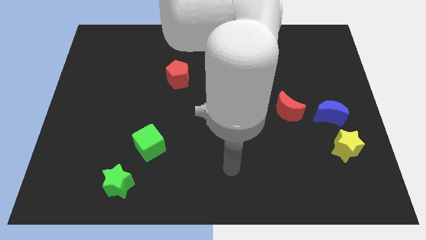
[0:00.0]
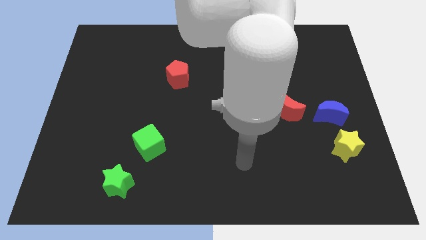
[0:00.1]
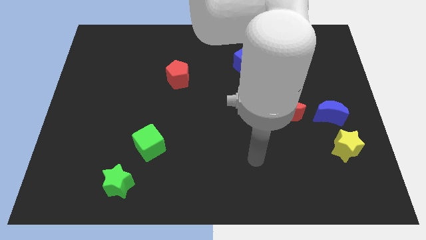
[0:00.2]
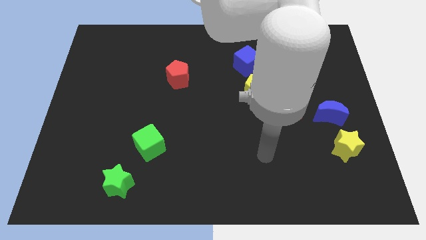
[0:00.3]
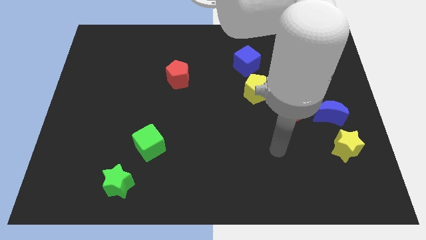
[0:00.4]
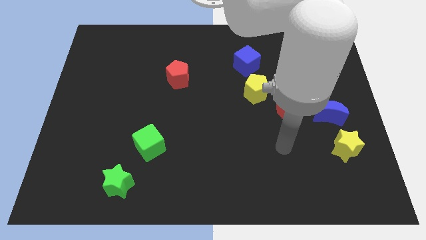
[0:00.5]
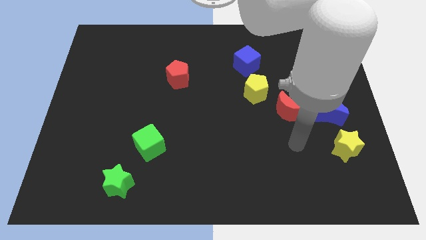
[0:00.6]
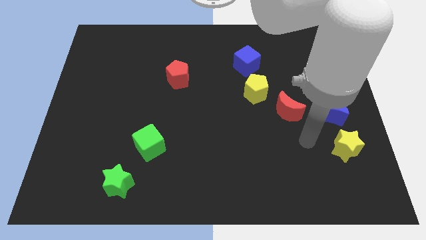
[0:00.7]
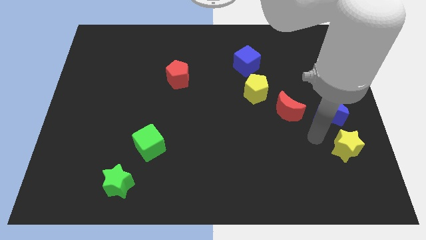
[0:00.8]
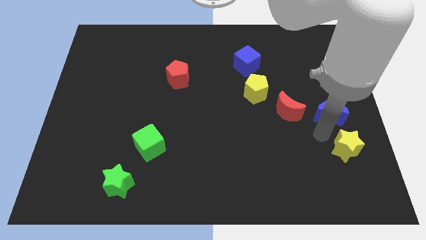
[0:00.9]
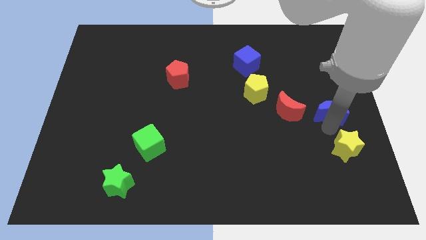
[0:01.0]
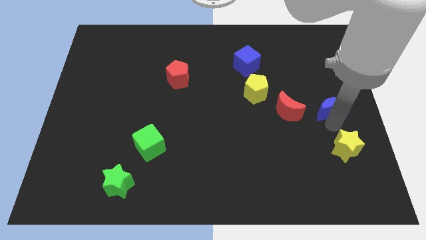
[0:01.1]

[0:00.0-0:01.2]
move the yellow star away from the blue moon

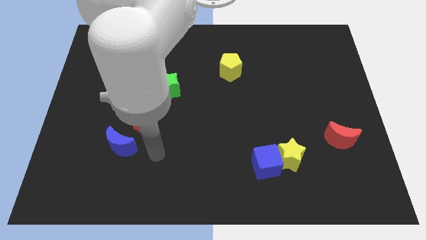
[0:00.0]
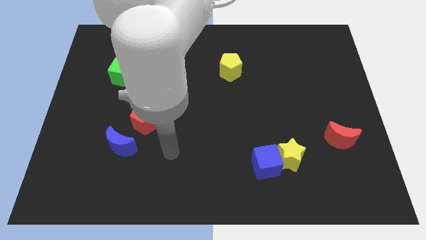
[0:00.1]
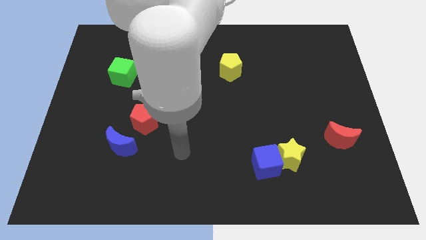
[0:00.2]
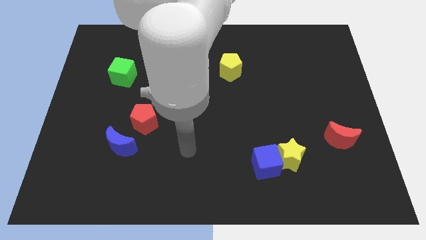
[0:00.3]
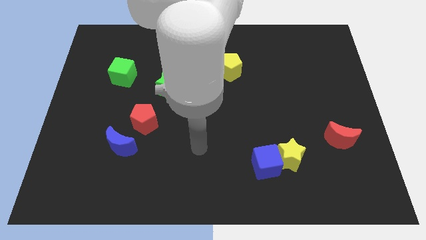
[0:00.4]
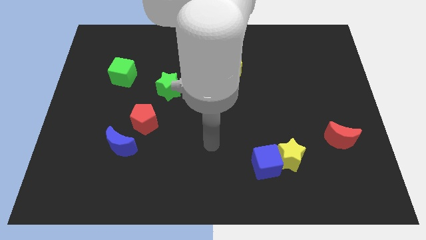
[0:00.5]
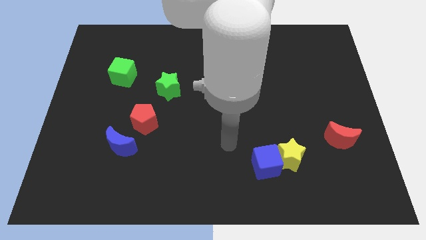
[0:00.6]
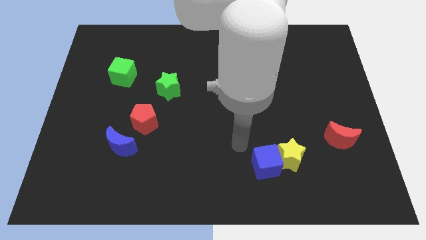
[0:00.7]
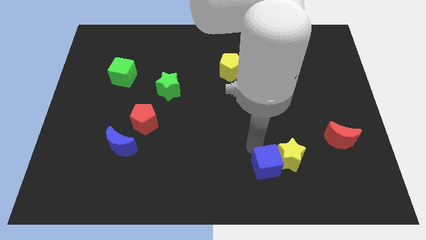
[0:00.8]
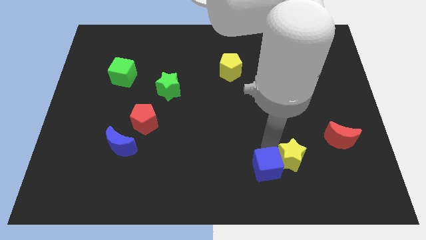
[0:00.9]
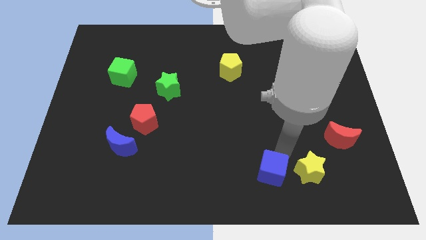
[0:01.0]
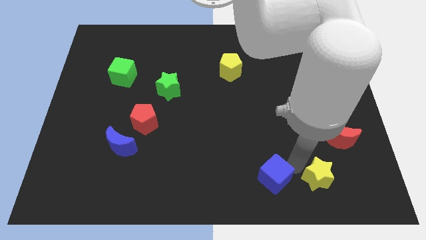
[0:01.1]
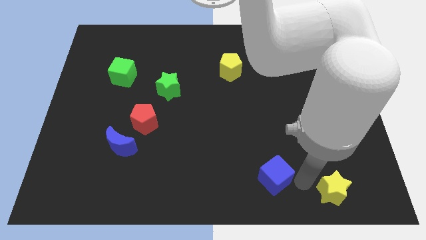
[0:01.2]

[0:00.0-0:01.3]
separate the blue cube from the yellow star

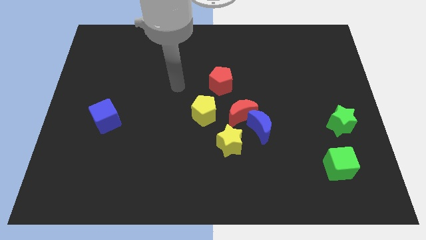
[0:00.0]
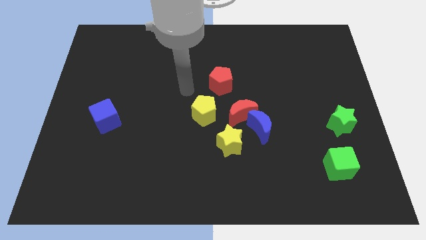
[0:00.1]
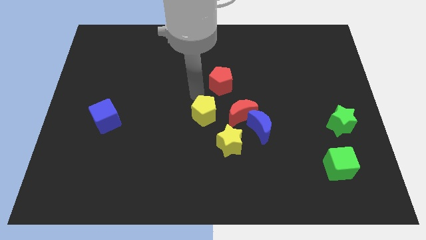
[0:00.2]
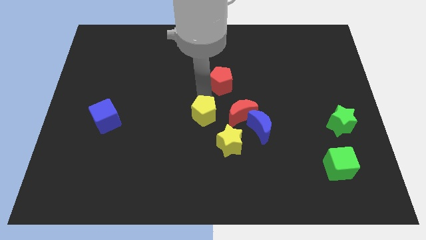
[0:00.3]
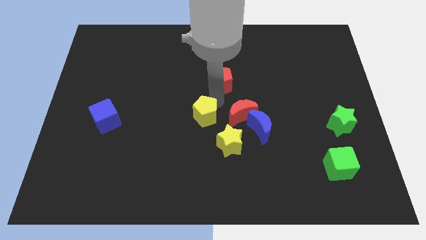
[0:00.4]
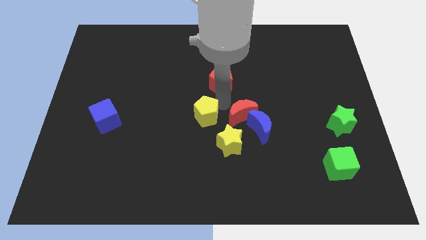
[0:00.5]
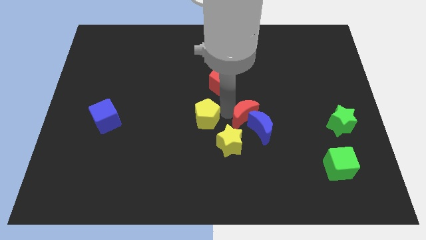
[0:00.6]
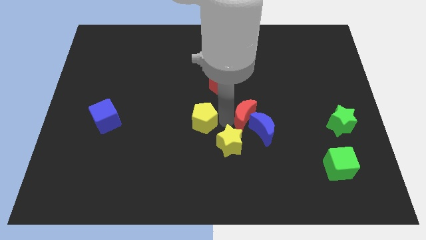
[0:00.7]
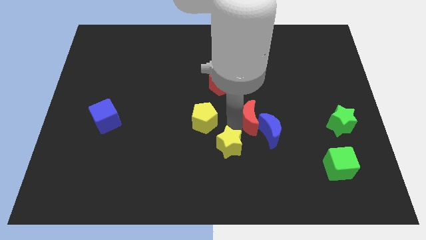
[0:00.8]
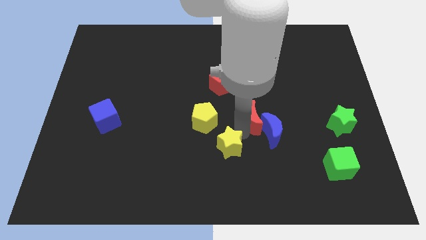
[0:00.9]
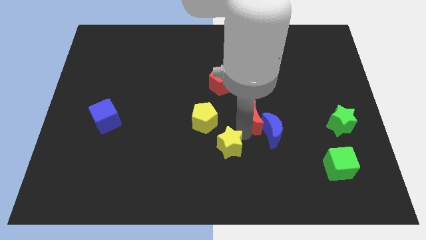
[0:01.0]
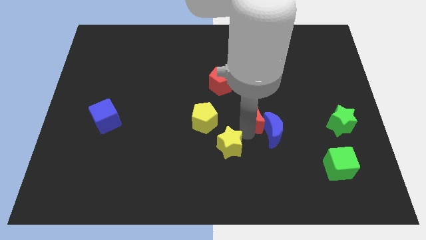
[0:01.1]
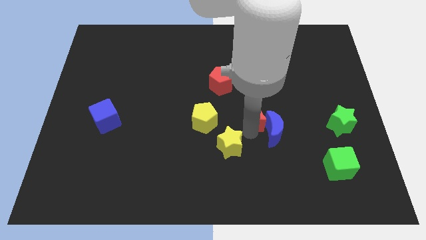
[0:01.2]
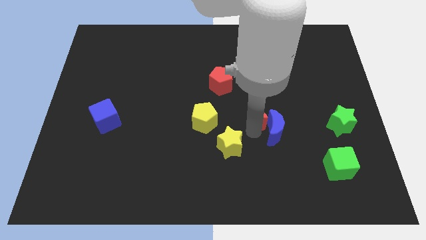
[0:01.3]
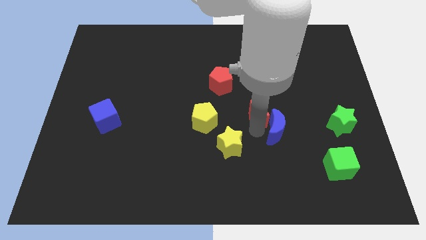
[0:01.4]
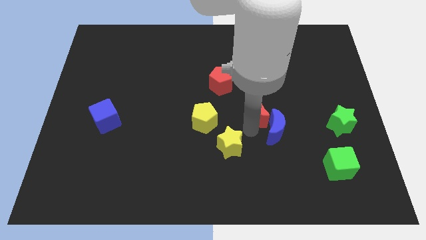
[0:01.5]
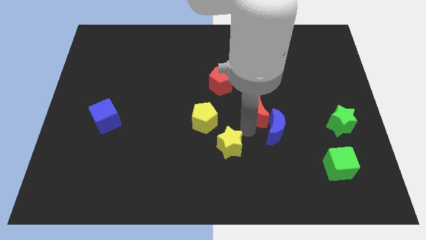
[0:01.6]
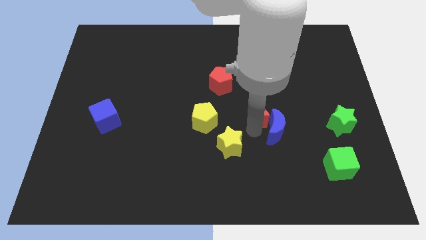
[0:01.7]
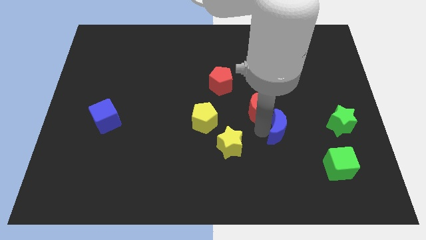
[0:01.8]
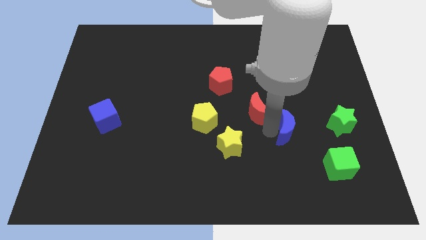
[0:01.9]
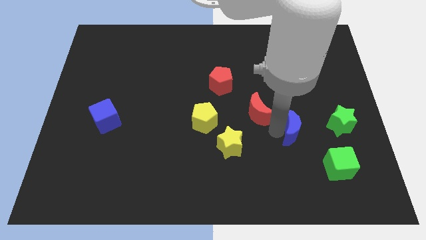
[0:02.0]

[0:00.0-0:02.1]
pull the blue moon apart from the red moon and yellow star

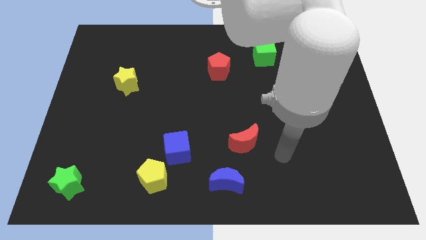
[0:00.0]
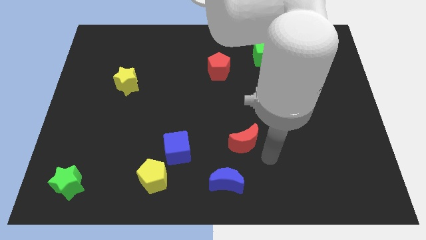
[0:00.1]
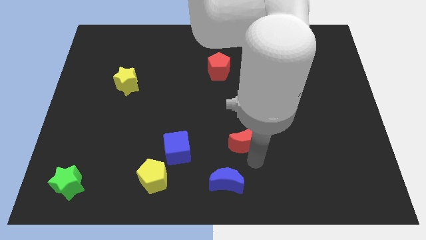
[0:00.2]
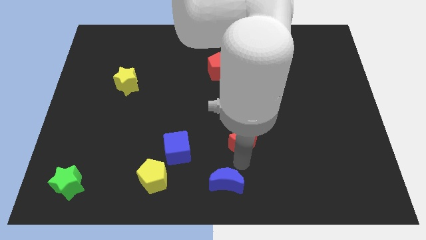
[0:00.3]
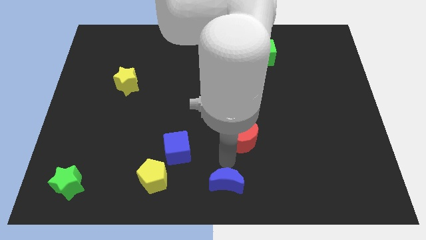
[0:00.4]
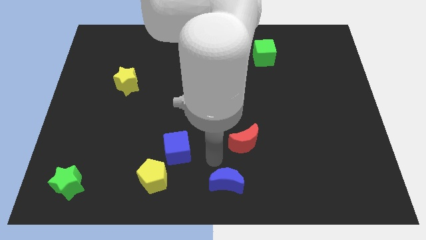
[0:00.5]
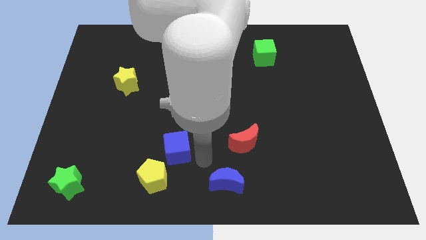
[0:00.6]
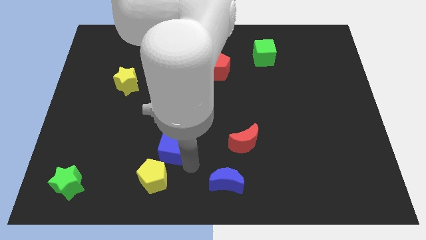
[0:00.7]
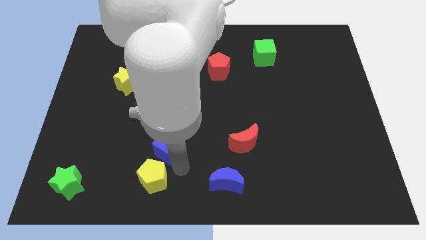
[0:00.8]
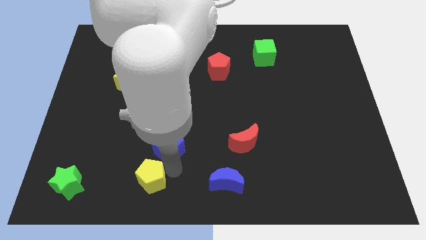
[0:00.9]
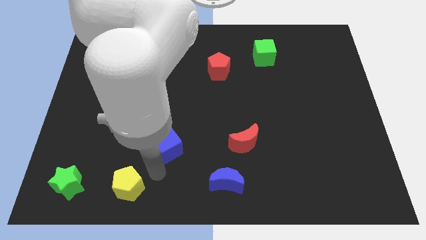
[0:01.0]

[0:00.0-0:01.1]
separate the blue cube from the yellow pentagon

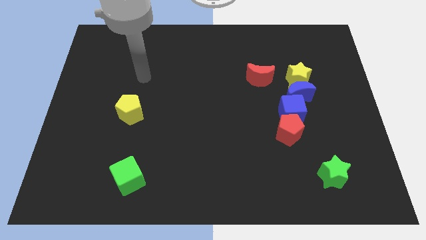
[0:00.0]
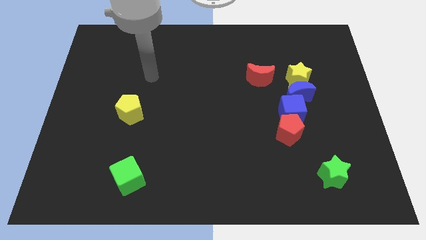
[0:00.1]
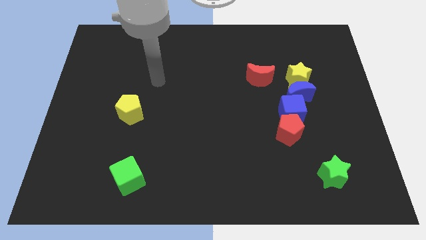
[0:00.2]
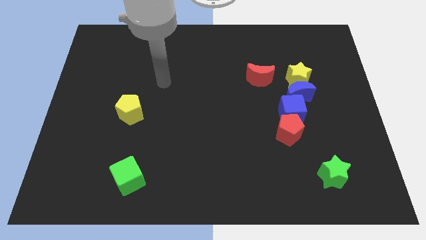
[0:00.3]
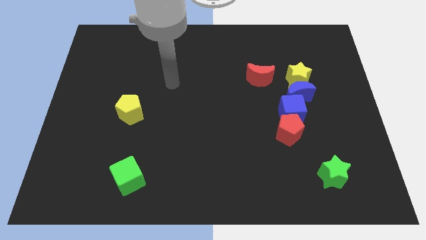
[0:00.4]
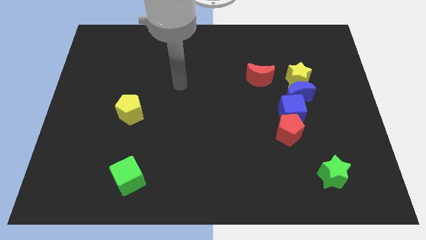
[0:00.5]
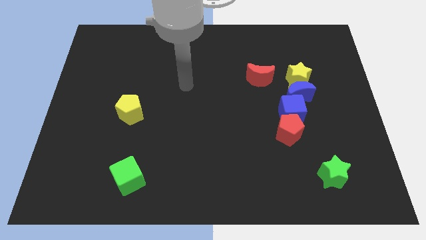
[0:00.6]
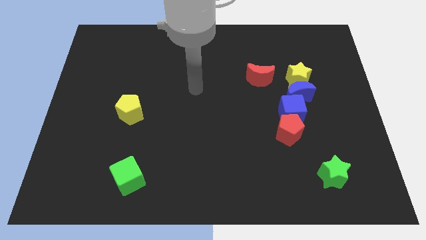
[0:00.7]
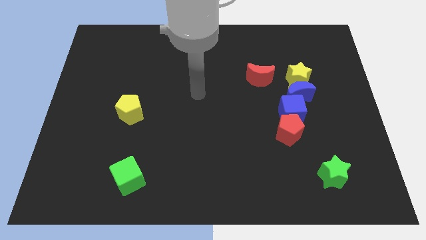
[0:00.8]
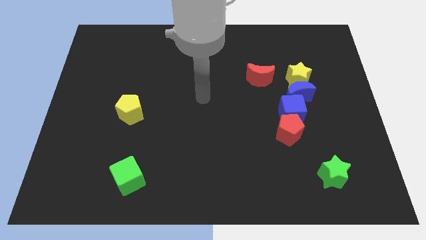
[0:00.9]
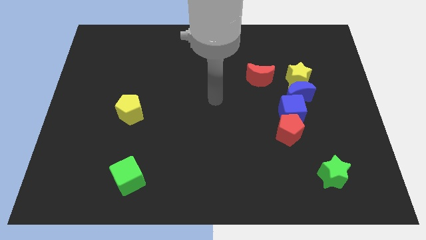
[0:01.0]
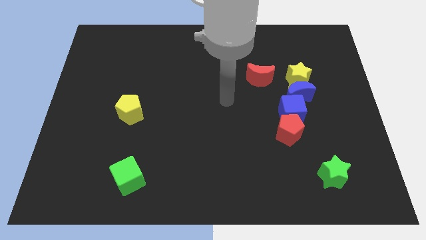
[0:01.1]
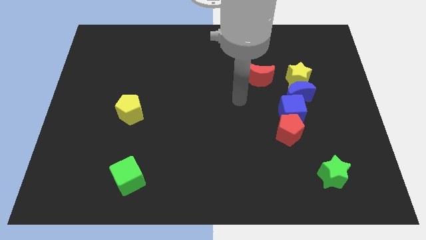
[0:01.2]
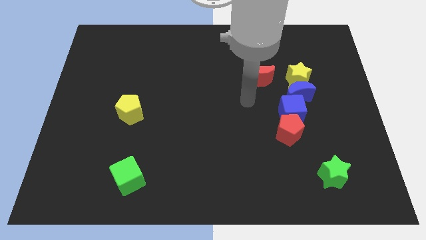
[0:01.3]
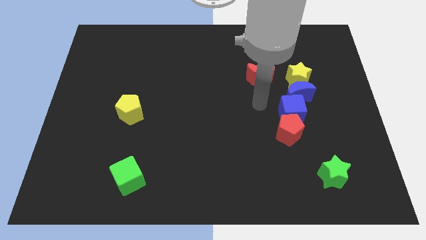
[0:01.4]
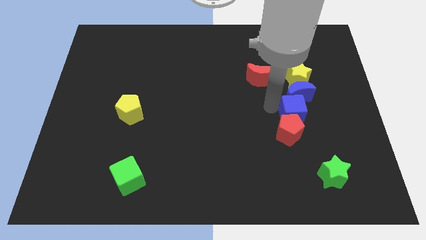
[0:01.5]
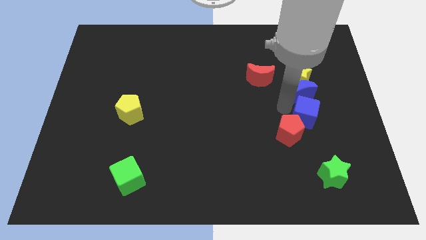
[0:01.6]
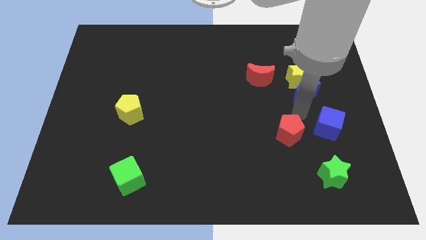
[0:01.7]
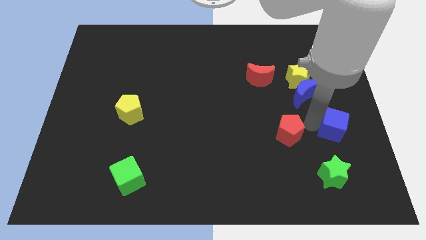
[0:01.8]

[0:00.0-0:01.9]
pull the red pentagon apart from the blue cube

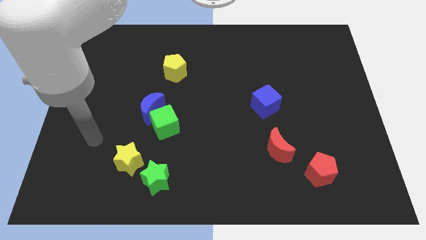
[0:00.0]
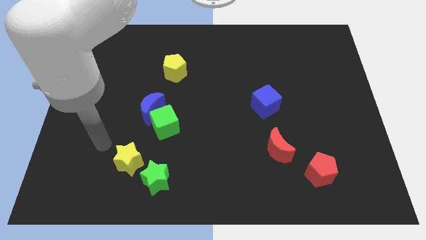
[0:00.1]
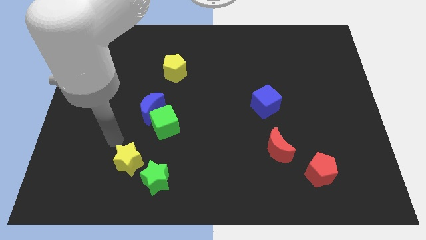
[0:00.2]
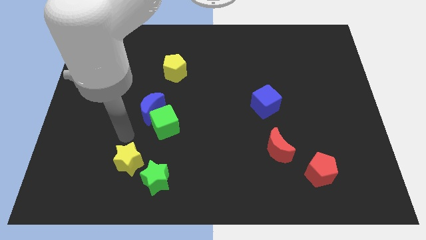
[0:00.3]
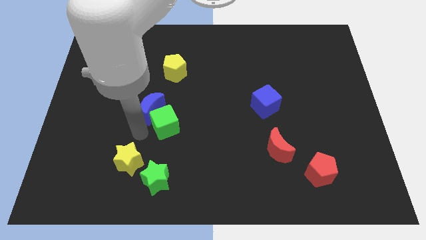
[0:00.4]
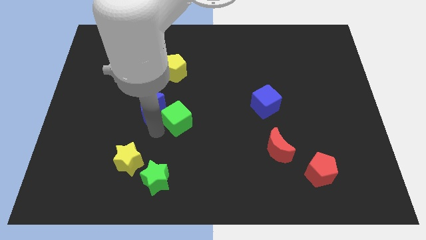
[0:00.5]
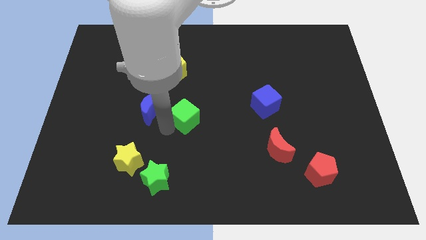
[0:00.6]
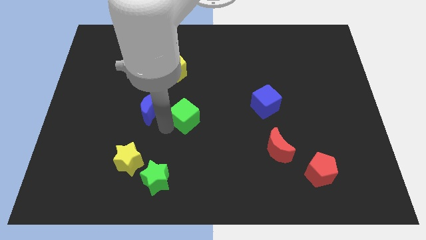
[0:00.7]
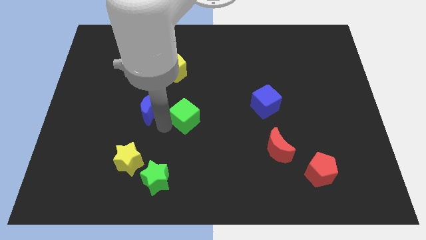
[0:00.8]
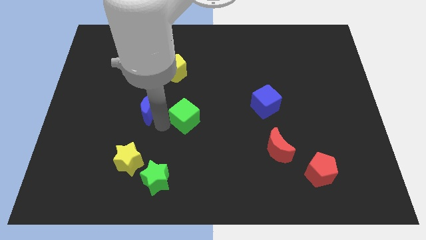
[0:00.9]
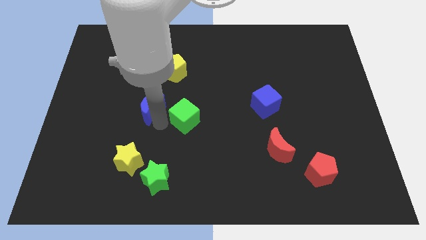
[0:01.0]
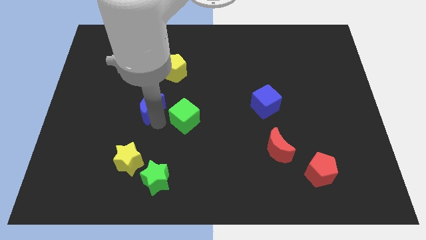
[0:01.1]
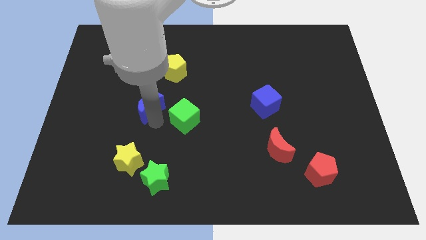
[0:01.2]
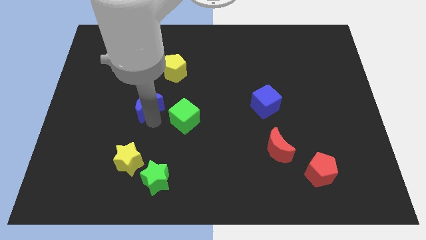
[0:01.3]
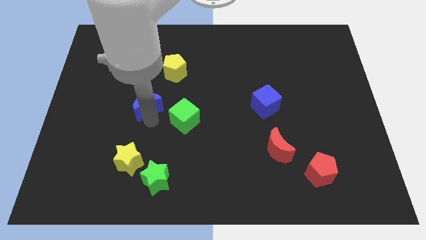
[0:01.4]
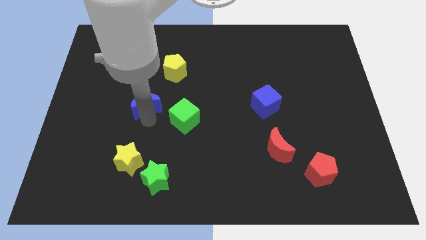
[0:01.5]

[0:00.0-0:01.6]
separate the blue moon from the green cube
